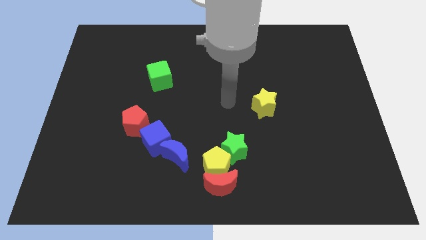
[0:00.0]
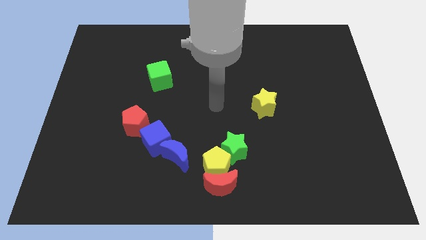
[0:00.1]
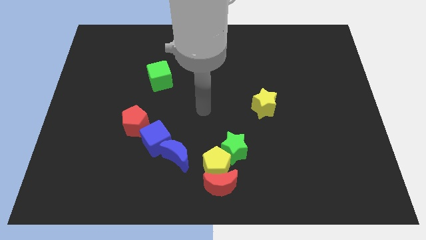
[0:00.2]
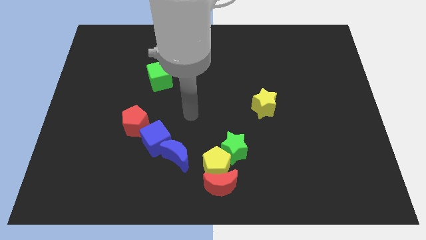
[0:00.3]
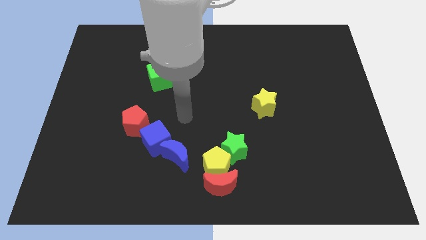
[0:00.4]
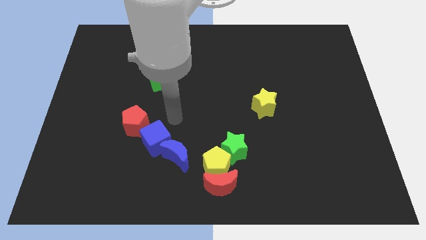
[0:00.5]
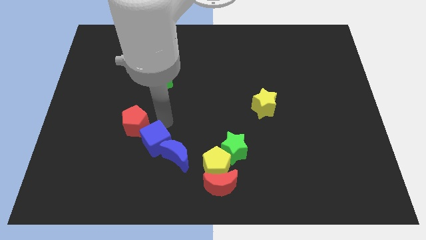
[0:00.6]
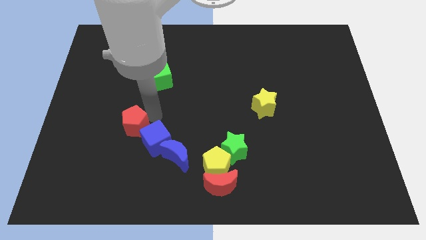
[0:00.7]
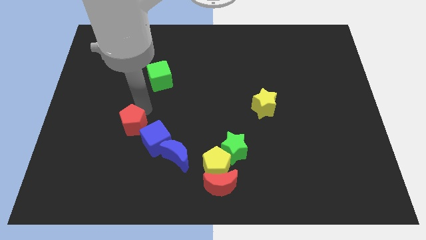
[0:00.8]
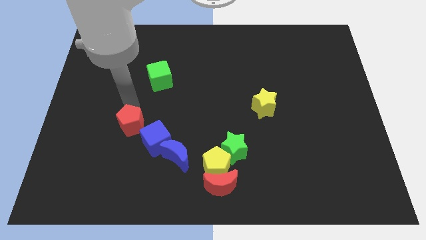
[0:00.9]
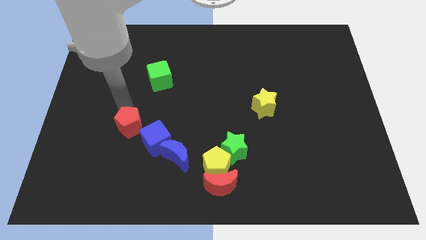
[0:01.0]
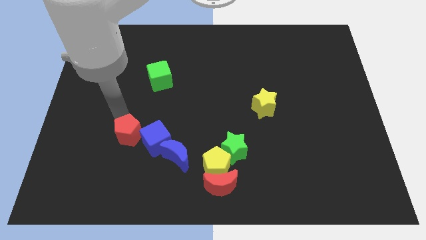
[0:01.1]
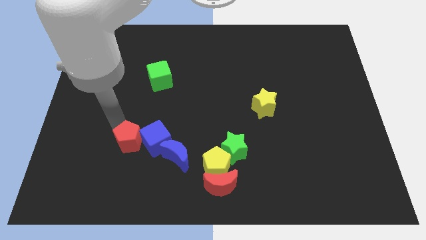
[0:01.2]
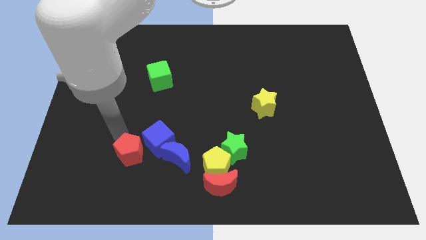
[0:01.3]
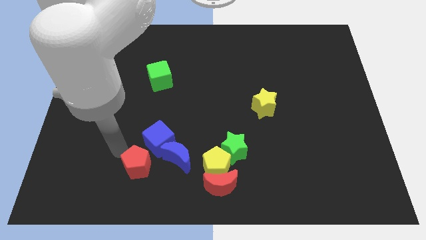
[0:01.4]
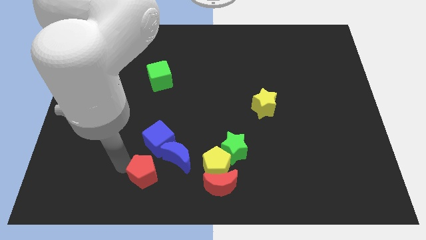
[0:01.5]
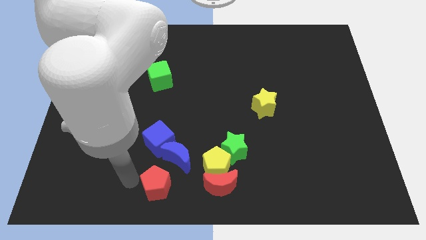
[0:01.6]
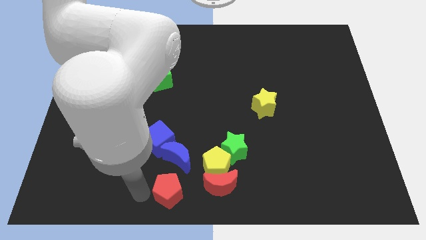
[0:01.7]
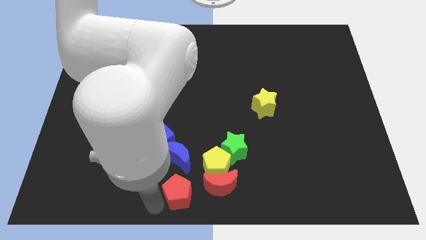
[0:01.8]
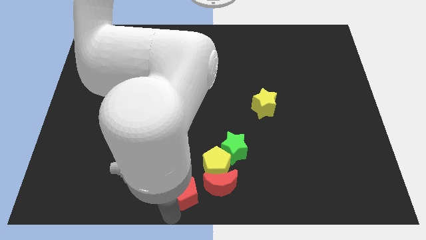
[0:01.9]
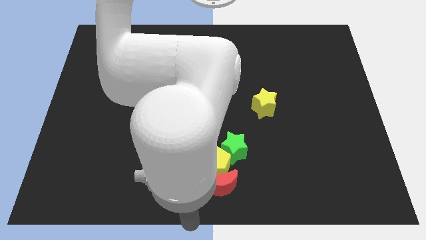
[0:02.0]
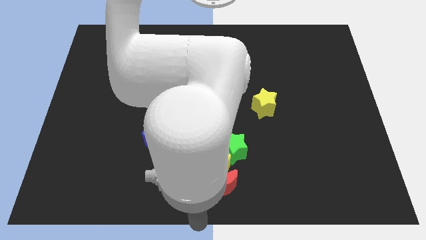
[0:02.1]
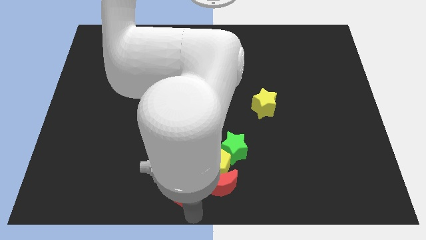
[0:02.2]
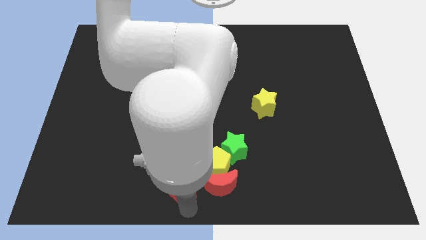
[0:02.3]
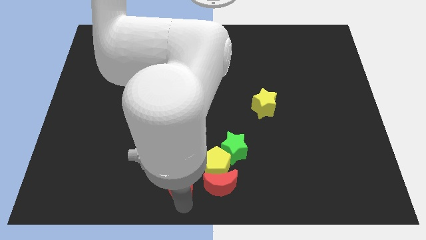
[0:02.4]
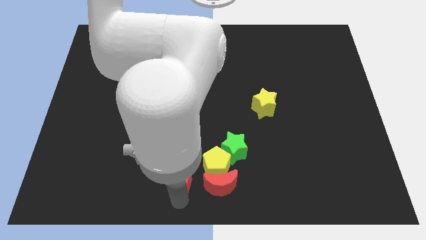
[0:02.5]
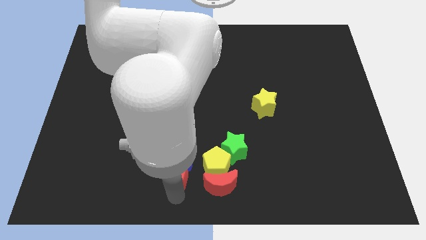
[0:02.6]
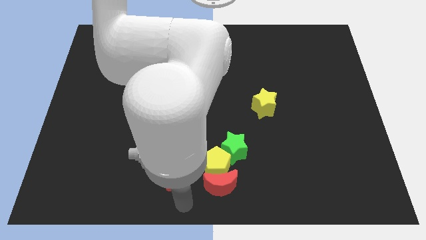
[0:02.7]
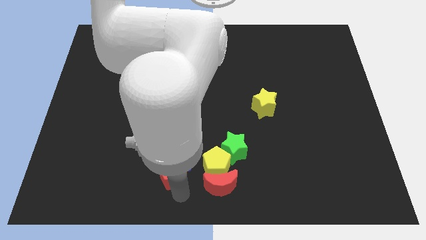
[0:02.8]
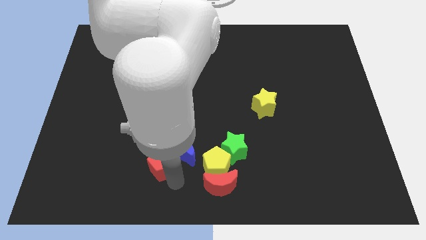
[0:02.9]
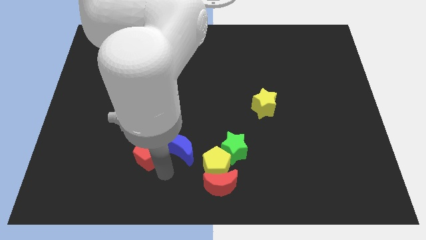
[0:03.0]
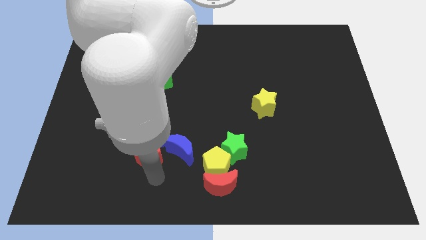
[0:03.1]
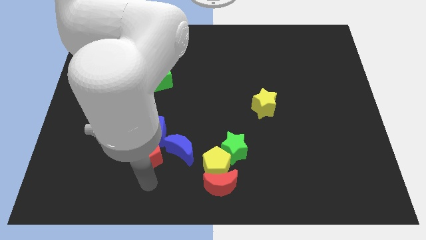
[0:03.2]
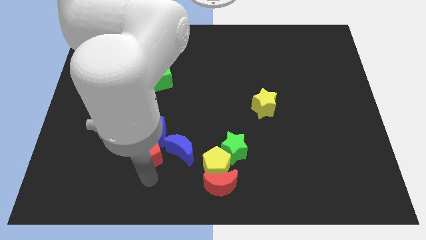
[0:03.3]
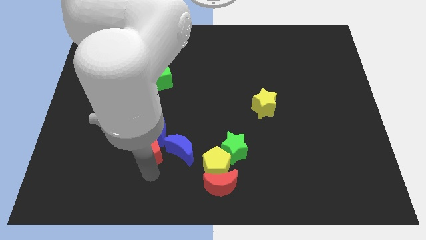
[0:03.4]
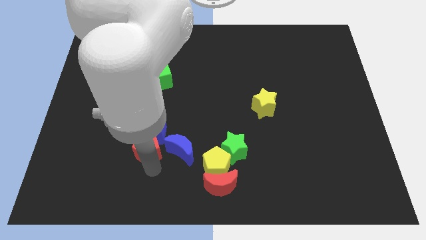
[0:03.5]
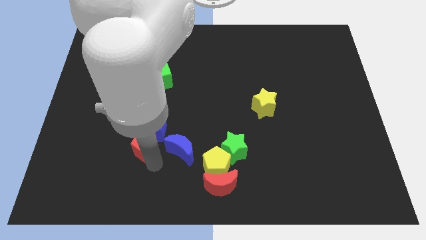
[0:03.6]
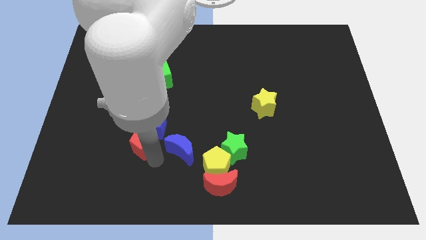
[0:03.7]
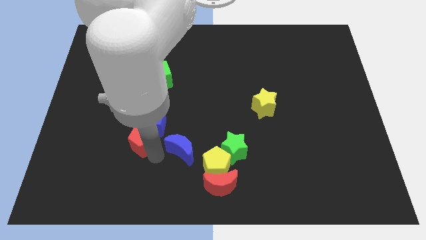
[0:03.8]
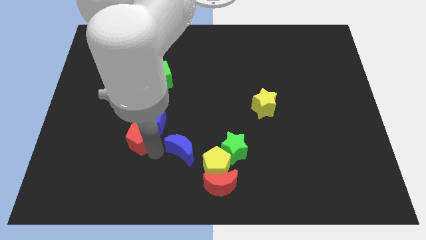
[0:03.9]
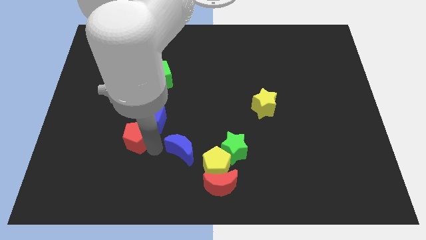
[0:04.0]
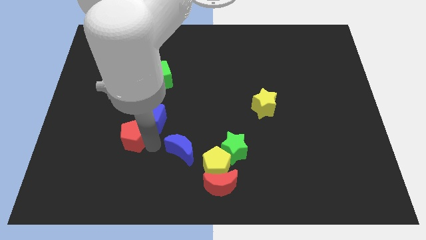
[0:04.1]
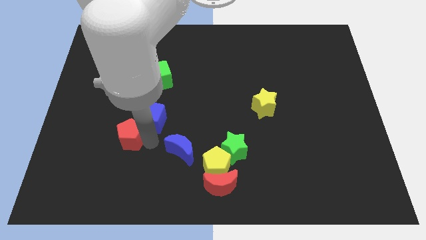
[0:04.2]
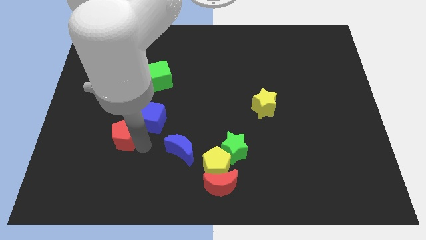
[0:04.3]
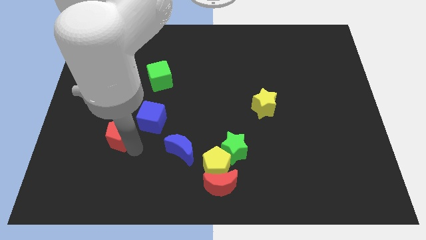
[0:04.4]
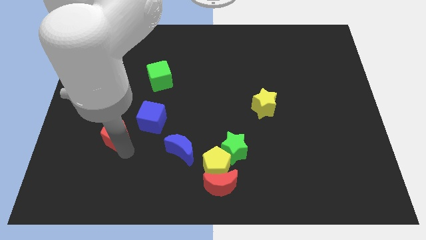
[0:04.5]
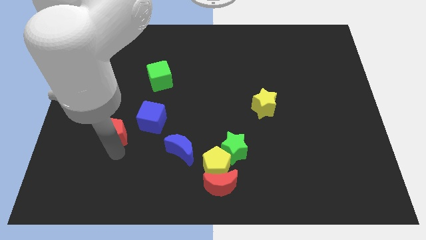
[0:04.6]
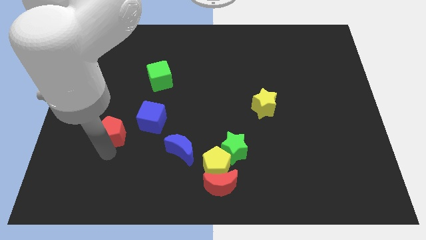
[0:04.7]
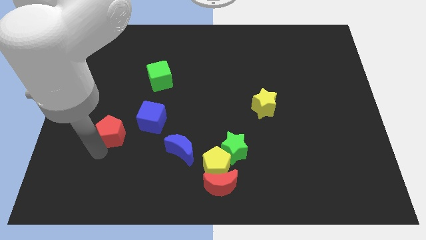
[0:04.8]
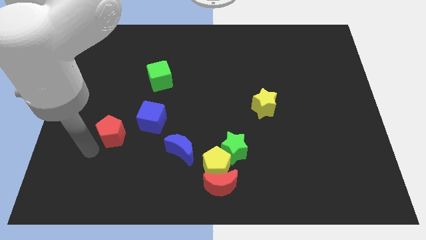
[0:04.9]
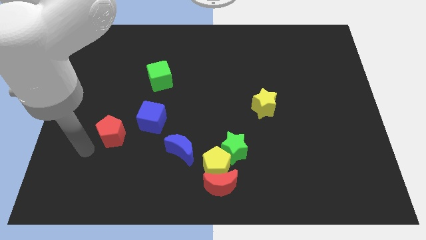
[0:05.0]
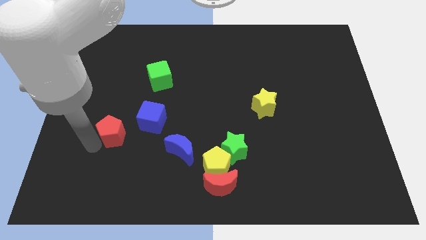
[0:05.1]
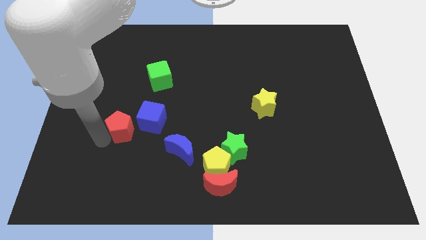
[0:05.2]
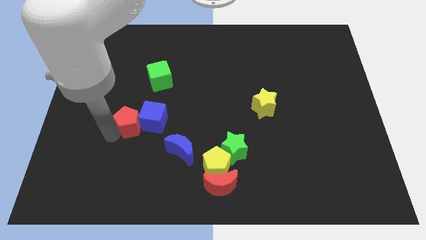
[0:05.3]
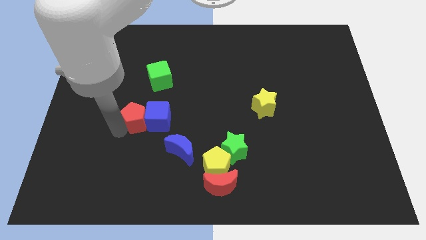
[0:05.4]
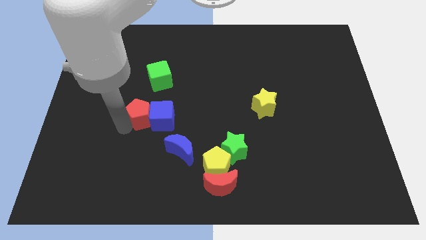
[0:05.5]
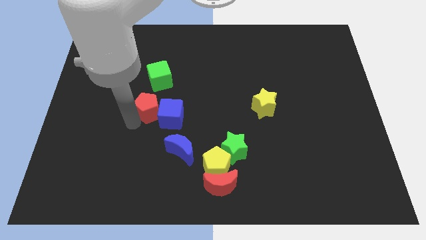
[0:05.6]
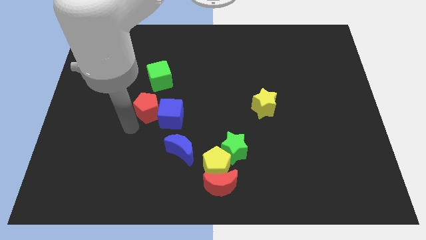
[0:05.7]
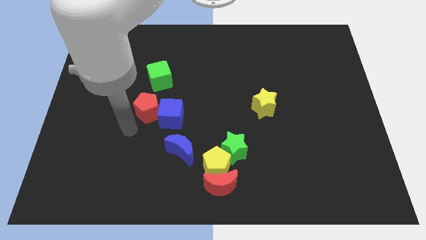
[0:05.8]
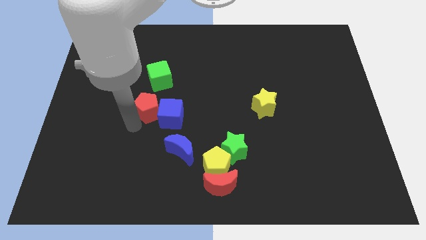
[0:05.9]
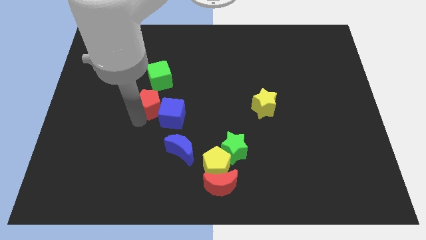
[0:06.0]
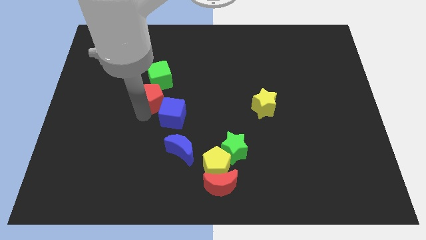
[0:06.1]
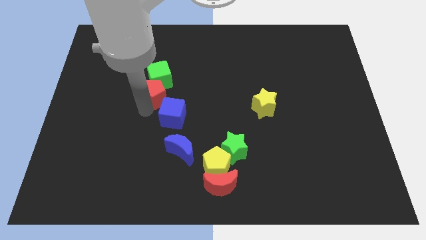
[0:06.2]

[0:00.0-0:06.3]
slide the red pentagon up and right a bit

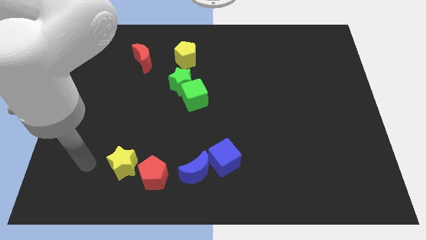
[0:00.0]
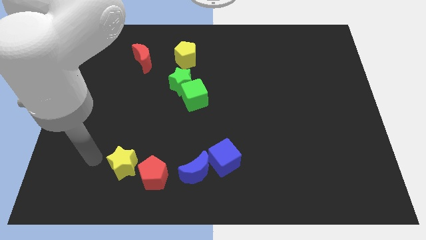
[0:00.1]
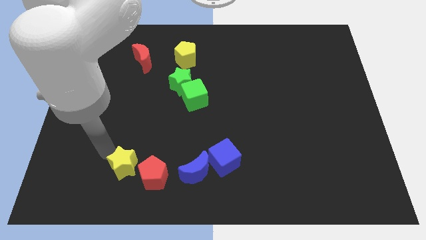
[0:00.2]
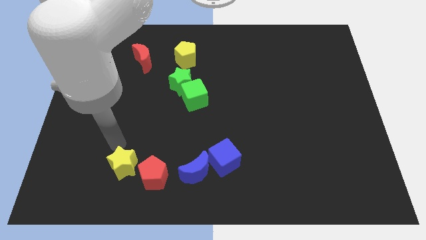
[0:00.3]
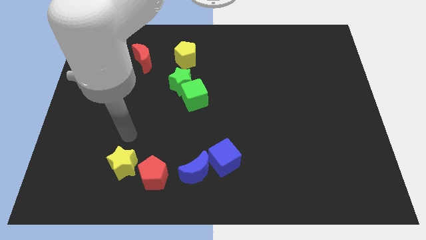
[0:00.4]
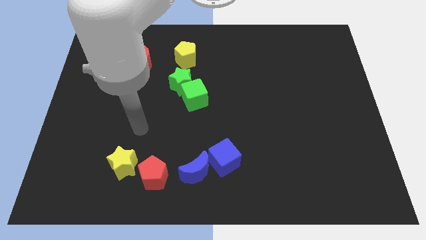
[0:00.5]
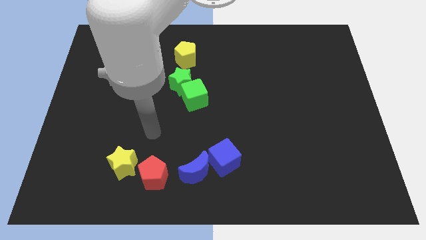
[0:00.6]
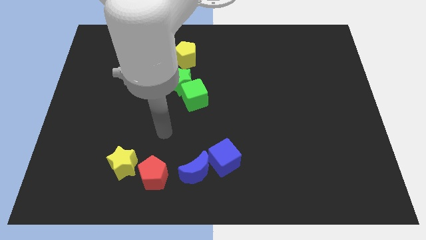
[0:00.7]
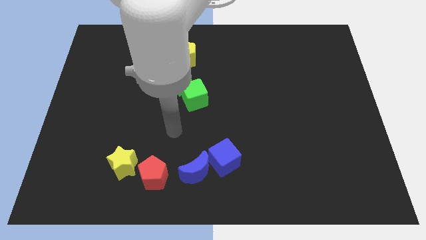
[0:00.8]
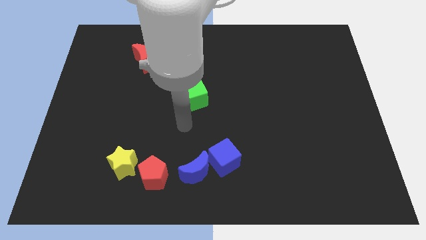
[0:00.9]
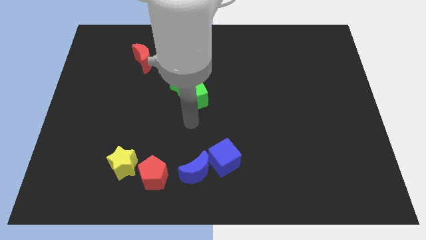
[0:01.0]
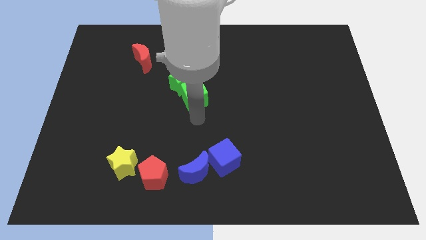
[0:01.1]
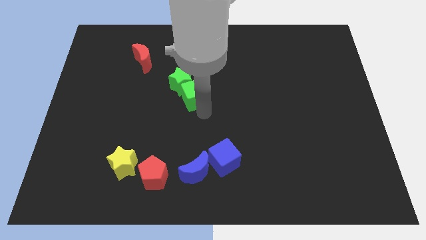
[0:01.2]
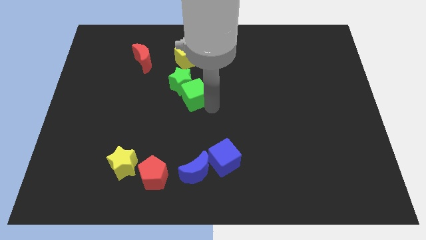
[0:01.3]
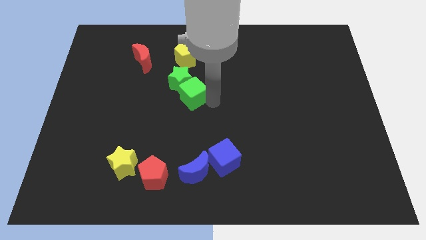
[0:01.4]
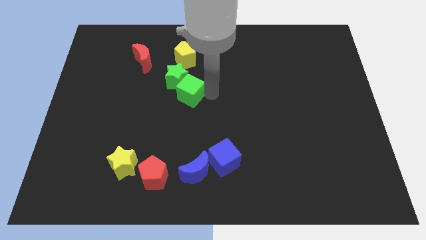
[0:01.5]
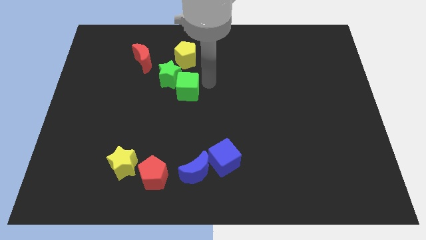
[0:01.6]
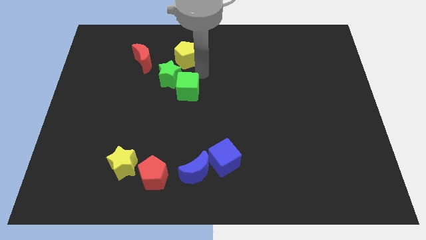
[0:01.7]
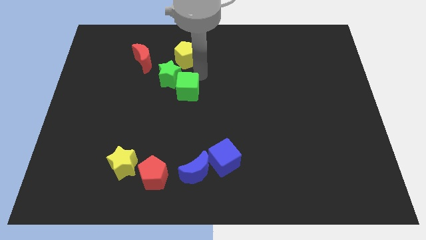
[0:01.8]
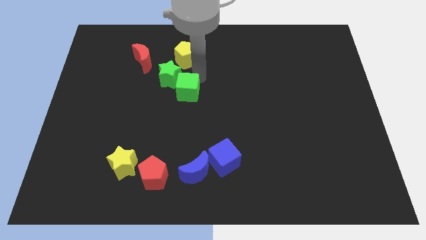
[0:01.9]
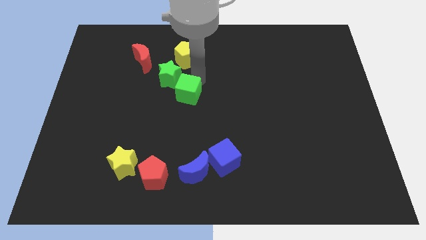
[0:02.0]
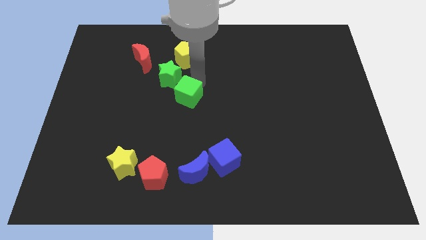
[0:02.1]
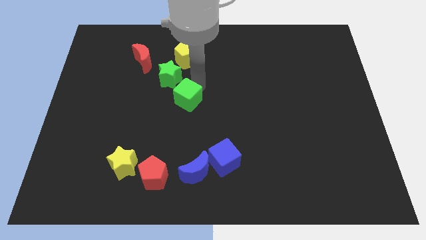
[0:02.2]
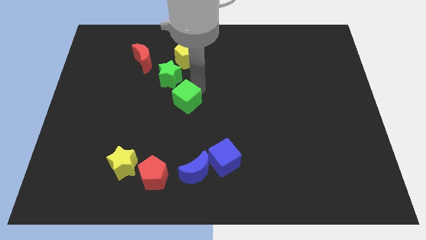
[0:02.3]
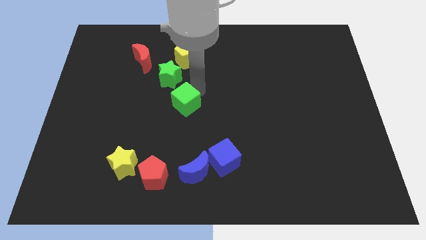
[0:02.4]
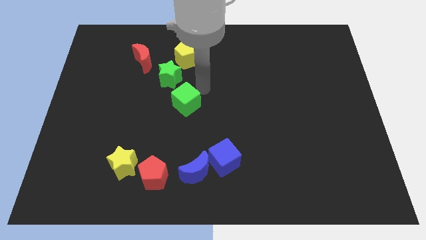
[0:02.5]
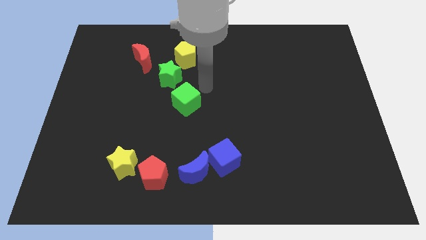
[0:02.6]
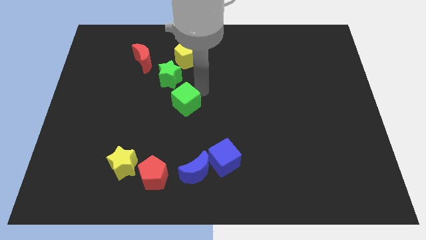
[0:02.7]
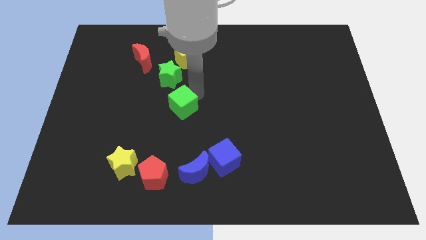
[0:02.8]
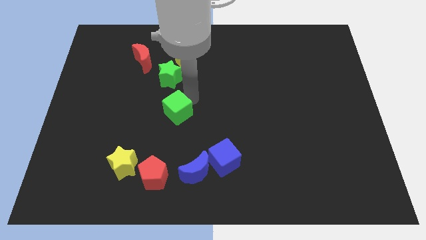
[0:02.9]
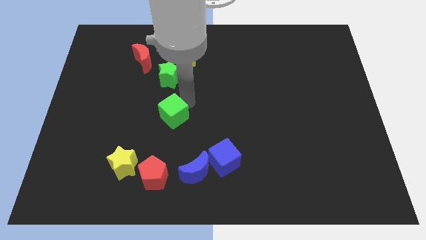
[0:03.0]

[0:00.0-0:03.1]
move the green cube diagonally down and to the left a little
